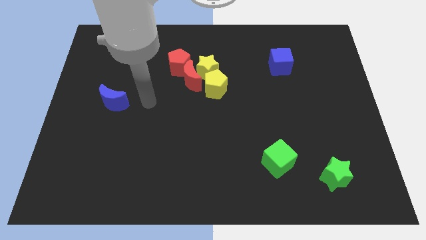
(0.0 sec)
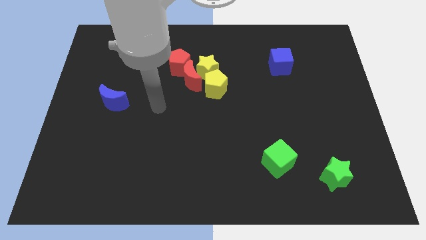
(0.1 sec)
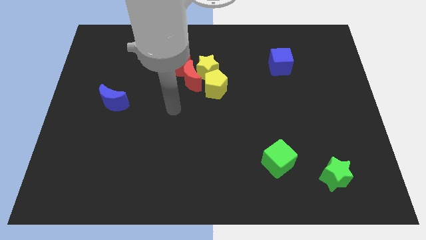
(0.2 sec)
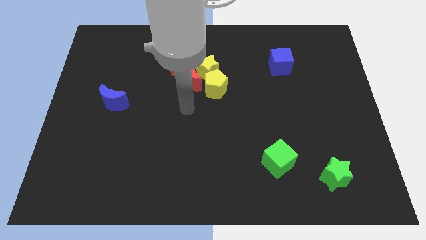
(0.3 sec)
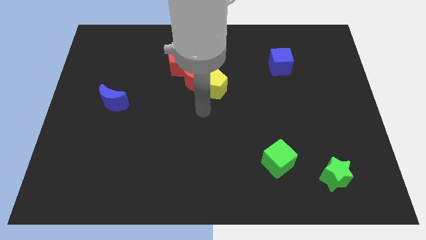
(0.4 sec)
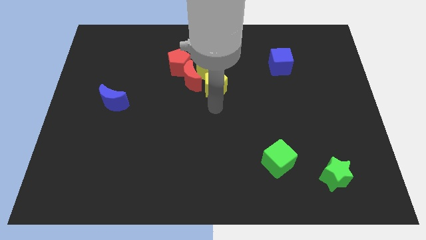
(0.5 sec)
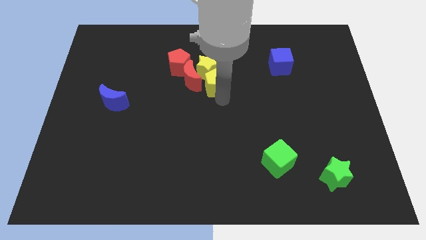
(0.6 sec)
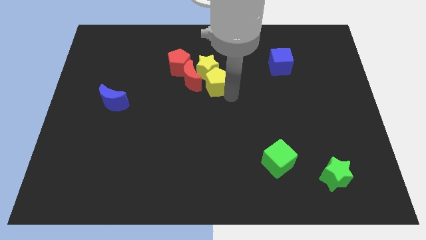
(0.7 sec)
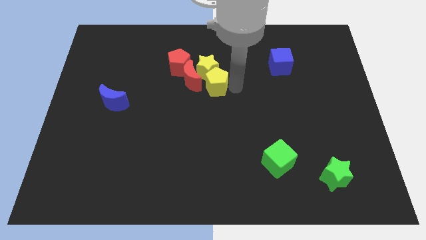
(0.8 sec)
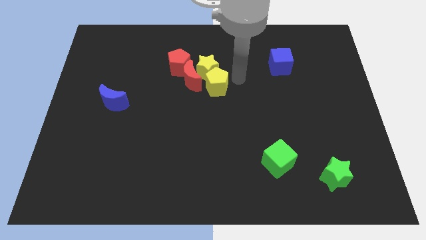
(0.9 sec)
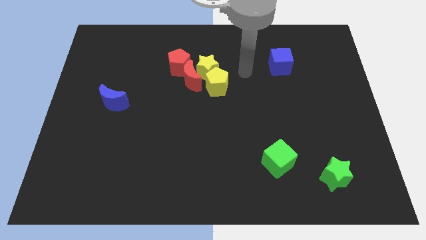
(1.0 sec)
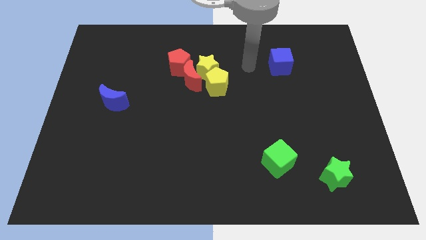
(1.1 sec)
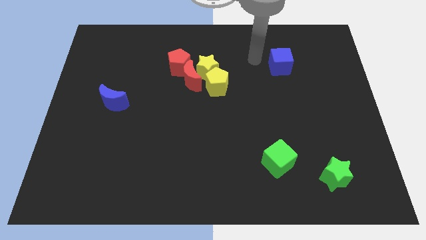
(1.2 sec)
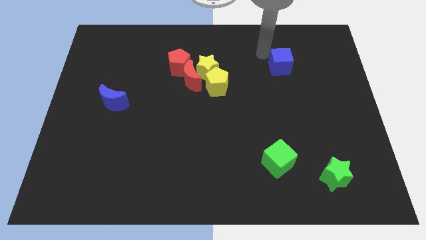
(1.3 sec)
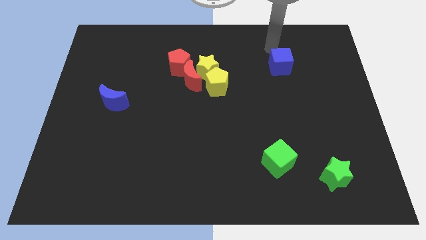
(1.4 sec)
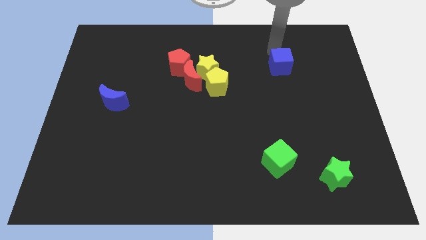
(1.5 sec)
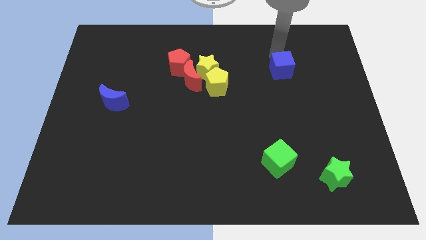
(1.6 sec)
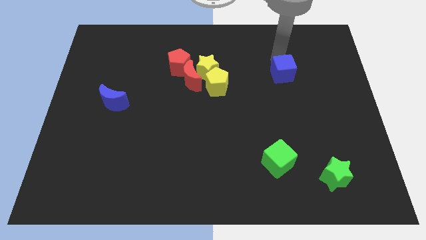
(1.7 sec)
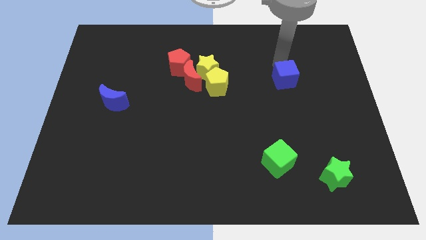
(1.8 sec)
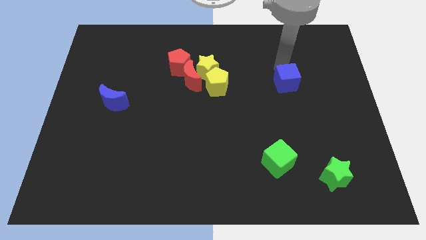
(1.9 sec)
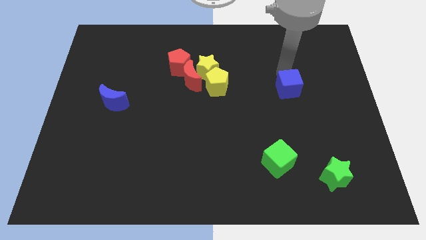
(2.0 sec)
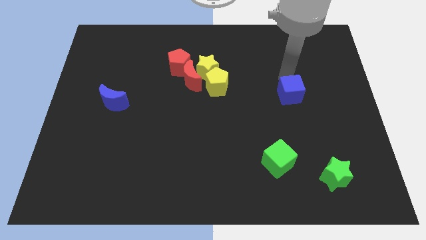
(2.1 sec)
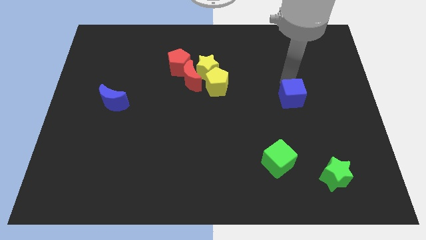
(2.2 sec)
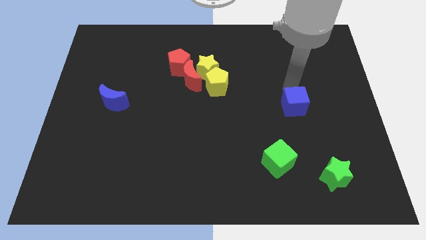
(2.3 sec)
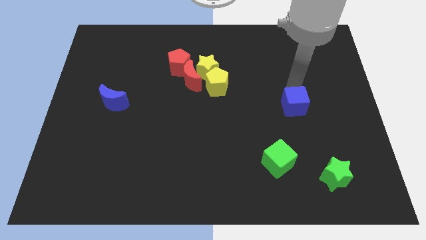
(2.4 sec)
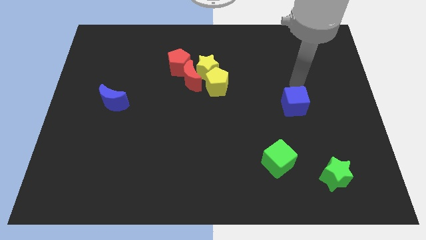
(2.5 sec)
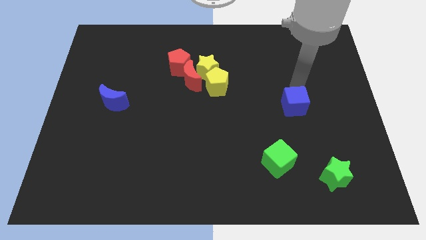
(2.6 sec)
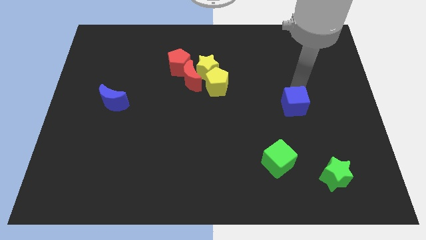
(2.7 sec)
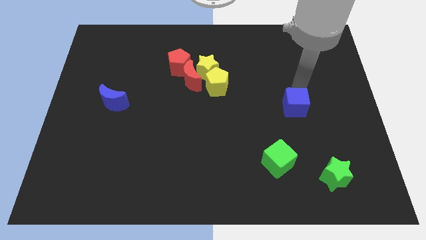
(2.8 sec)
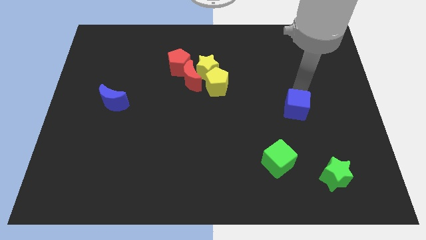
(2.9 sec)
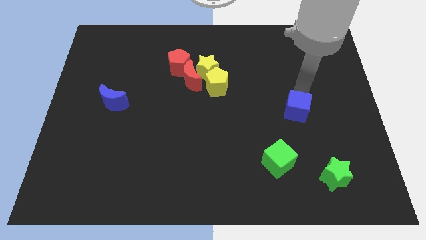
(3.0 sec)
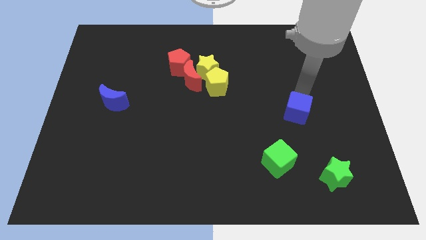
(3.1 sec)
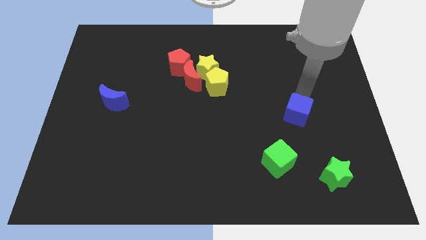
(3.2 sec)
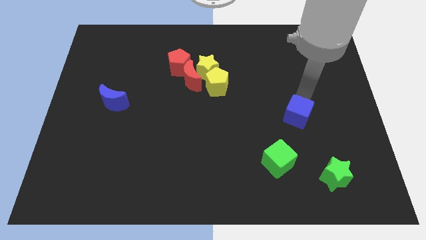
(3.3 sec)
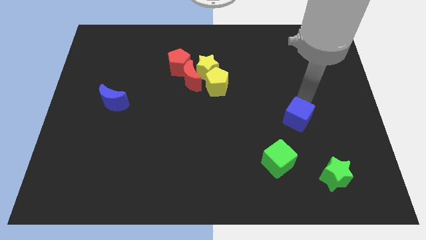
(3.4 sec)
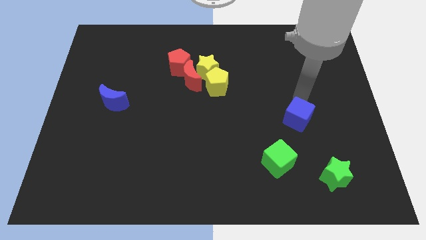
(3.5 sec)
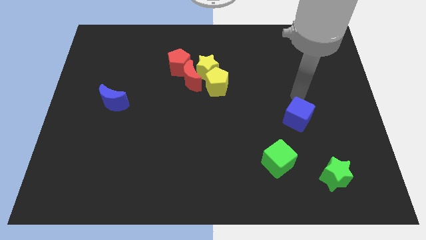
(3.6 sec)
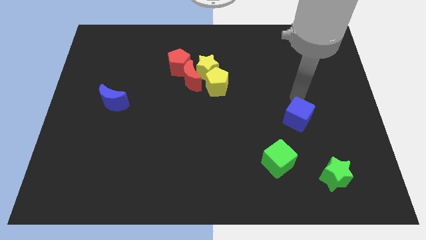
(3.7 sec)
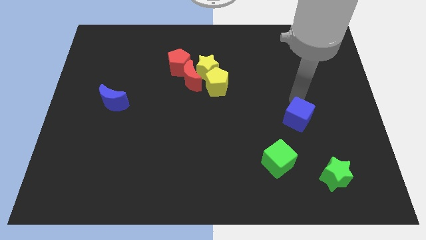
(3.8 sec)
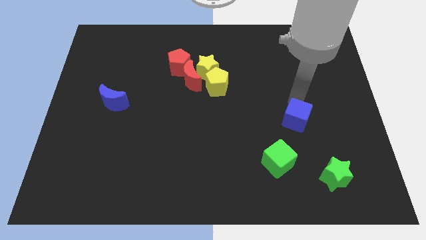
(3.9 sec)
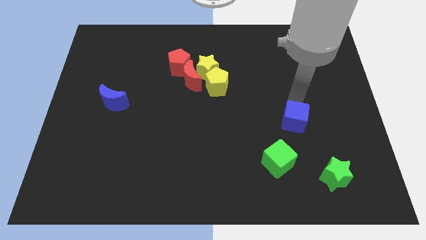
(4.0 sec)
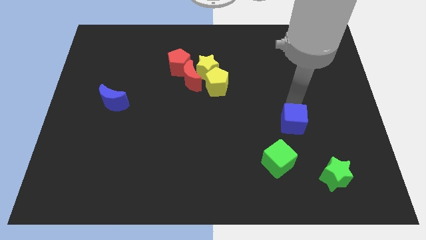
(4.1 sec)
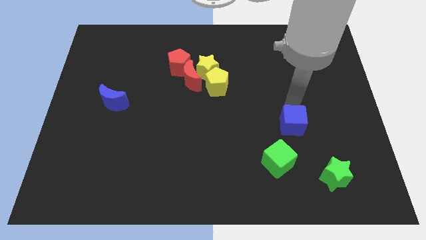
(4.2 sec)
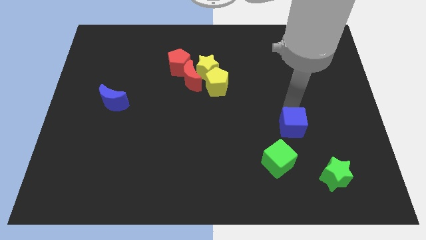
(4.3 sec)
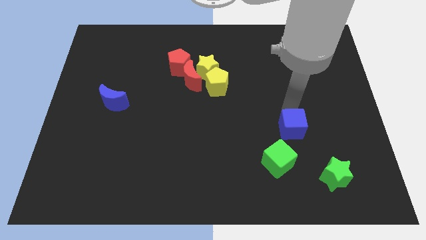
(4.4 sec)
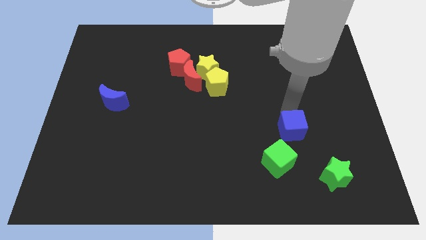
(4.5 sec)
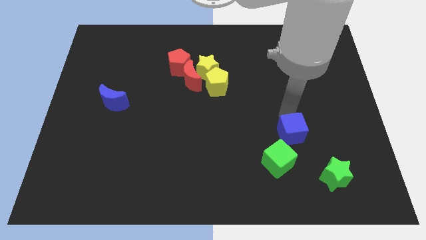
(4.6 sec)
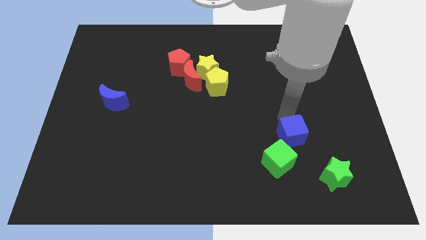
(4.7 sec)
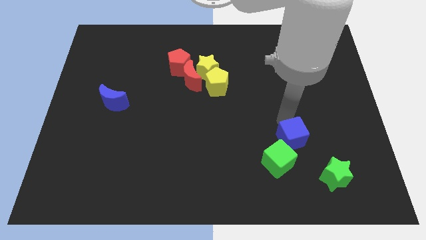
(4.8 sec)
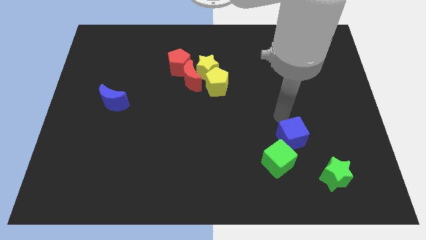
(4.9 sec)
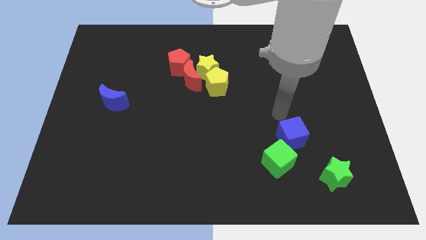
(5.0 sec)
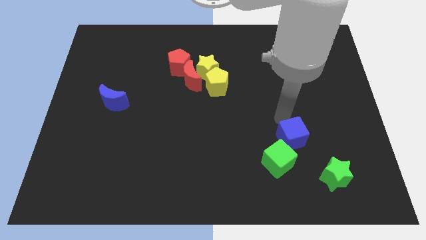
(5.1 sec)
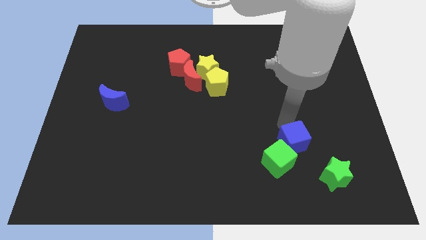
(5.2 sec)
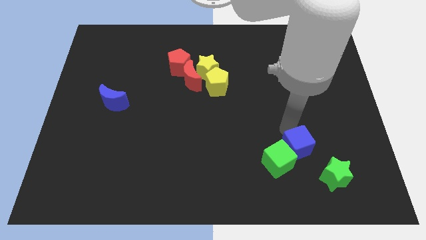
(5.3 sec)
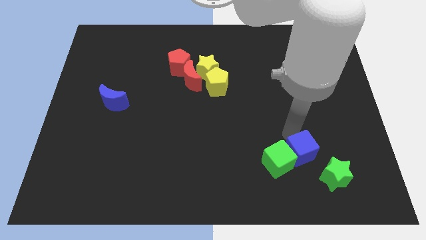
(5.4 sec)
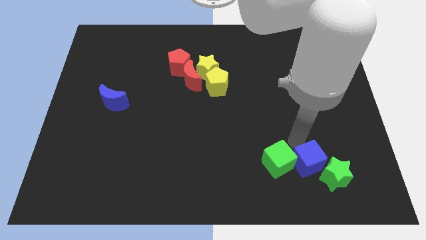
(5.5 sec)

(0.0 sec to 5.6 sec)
slide the blue cube to the bottom right of the green cube

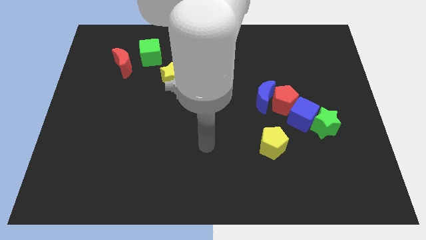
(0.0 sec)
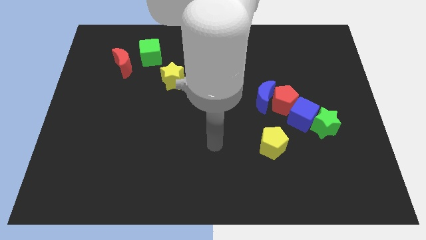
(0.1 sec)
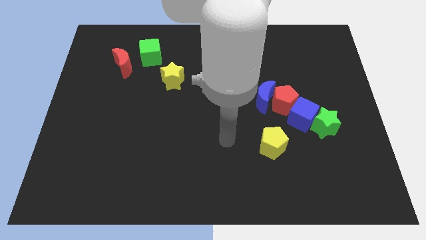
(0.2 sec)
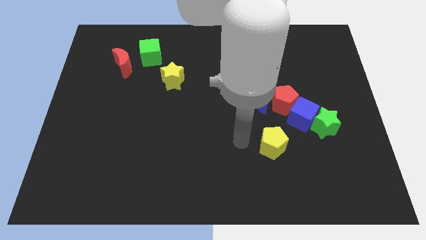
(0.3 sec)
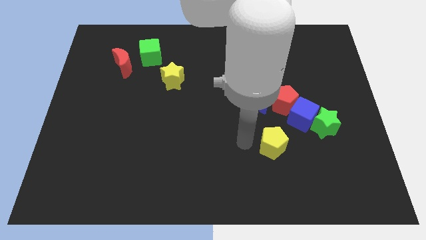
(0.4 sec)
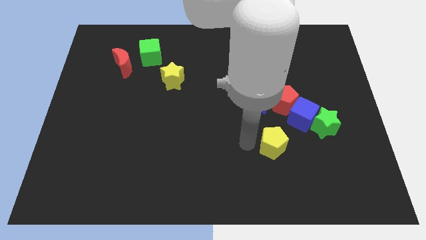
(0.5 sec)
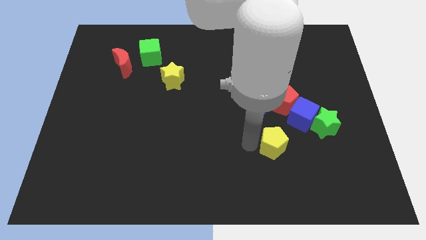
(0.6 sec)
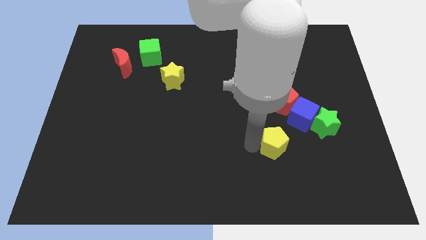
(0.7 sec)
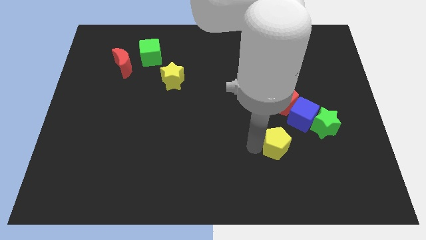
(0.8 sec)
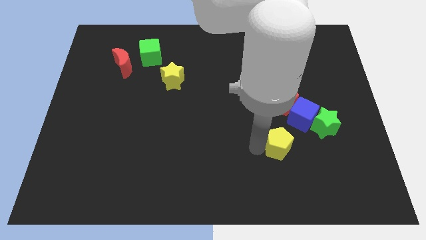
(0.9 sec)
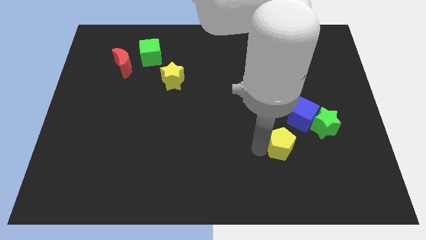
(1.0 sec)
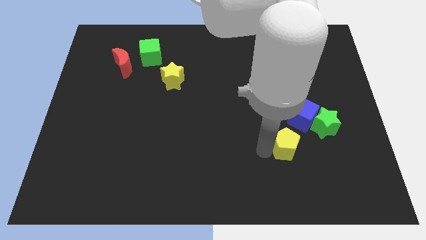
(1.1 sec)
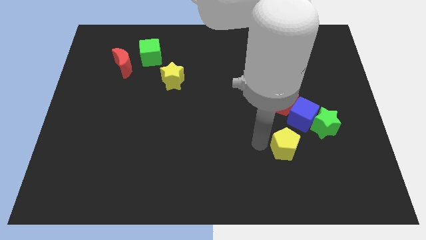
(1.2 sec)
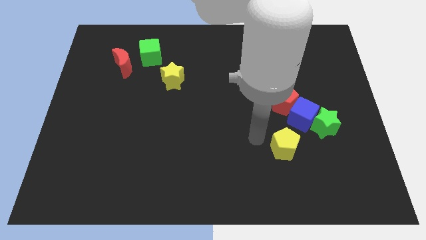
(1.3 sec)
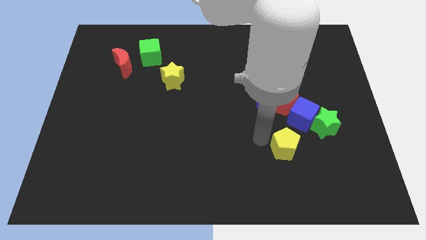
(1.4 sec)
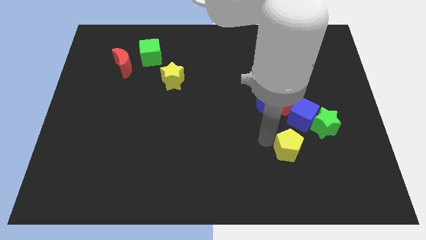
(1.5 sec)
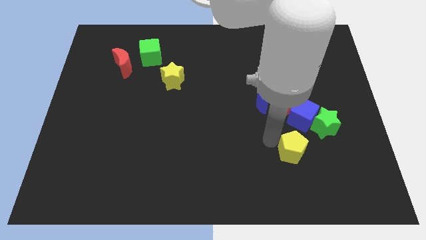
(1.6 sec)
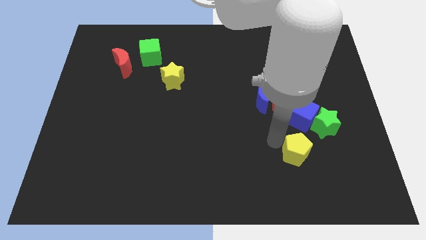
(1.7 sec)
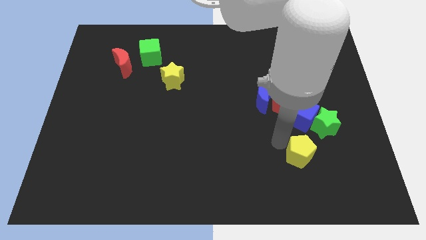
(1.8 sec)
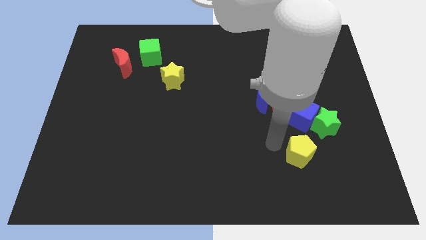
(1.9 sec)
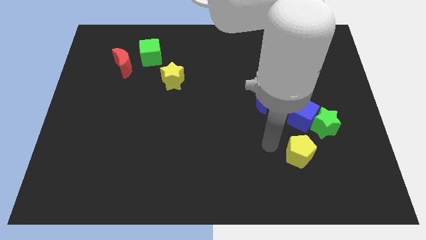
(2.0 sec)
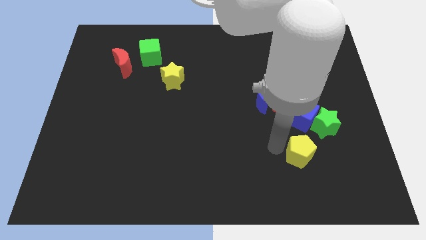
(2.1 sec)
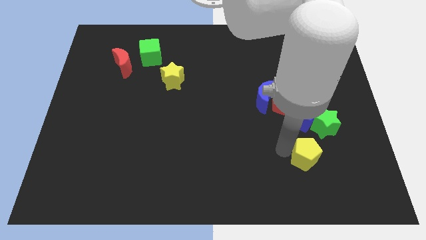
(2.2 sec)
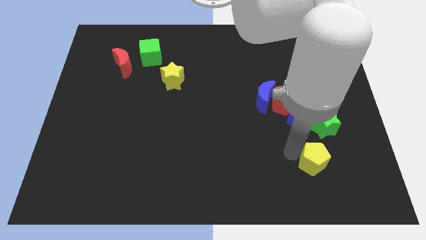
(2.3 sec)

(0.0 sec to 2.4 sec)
put the yellow pentagon below the green star
